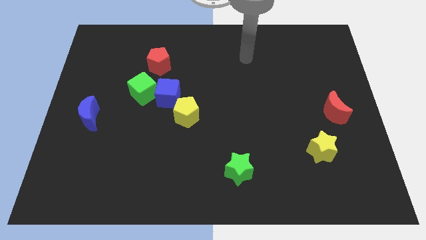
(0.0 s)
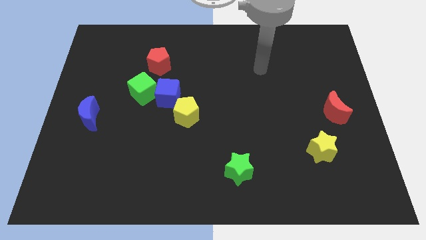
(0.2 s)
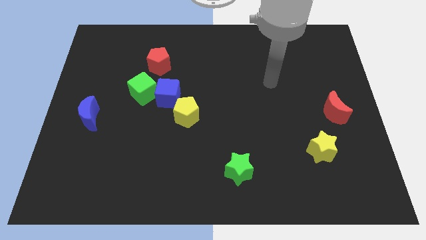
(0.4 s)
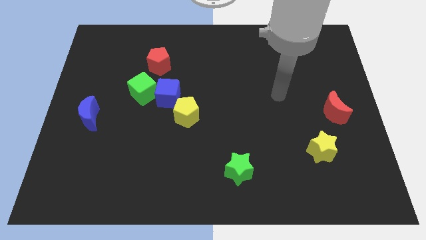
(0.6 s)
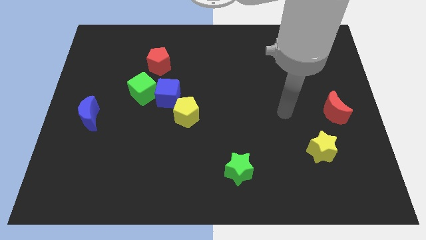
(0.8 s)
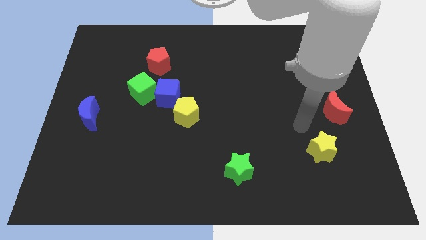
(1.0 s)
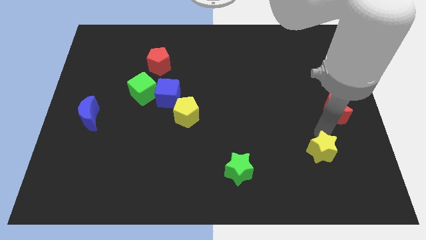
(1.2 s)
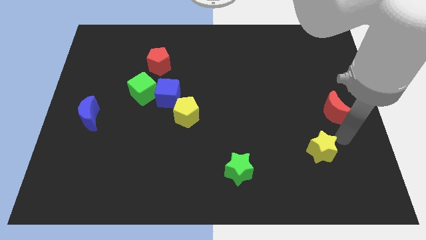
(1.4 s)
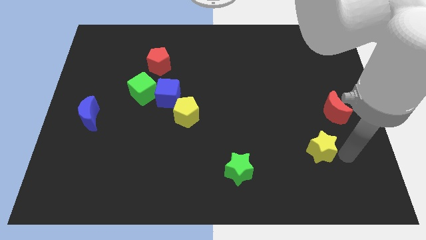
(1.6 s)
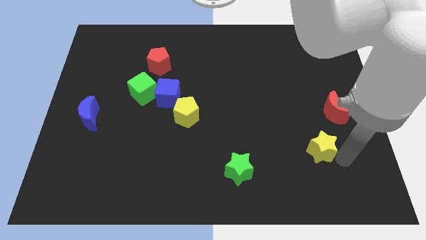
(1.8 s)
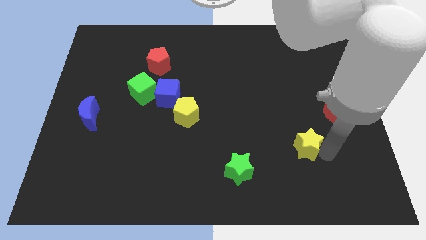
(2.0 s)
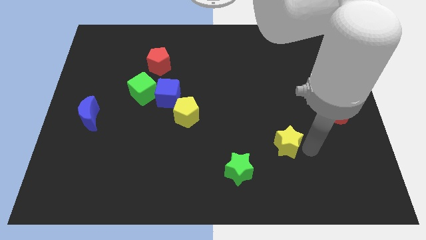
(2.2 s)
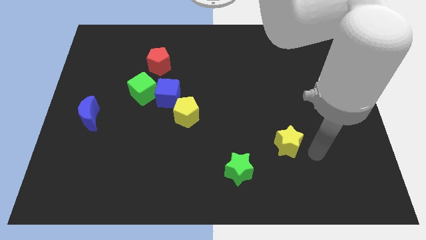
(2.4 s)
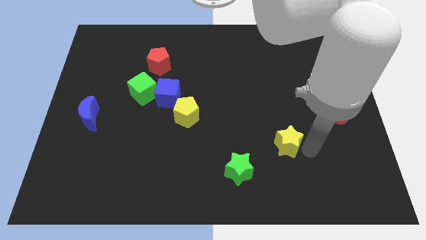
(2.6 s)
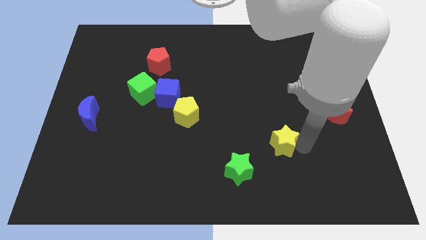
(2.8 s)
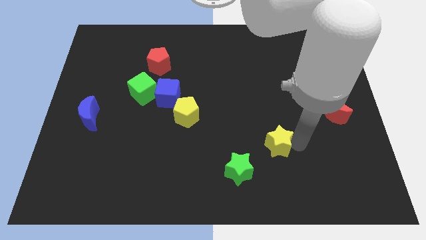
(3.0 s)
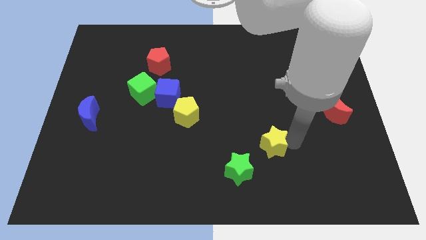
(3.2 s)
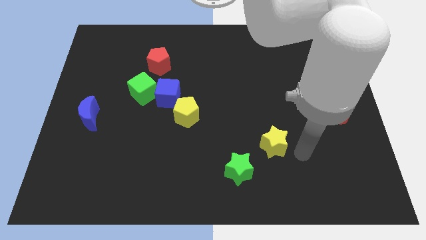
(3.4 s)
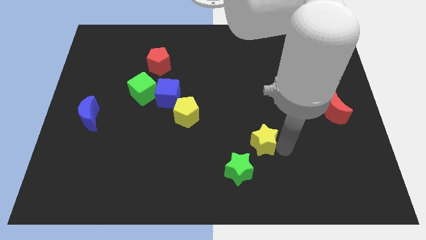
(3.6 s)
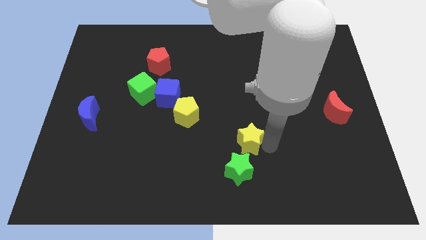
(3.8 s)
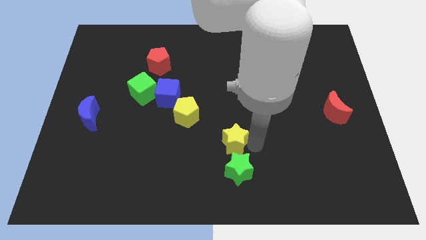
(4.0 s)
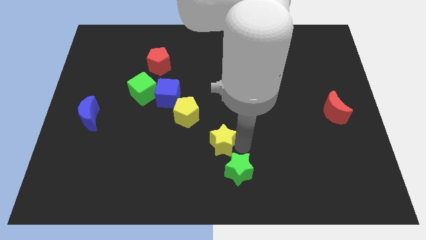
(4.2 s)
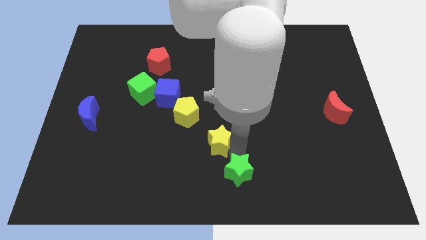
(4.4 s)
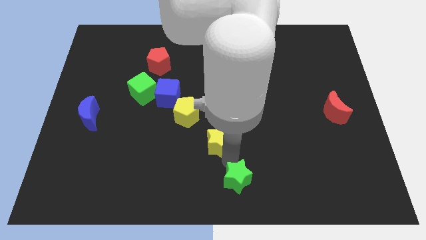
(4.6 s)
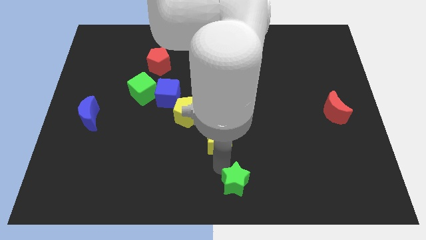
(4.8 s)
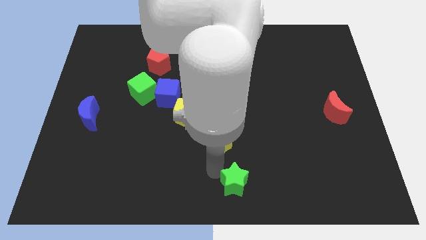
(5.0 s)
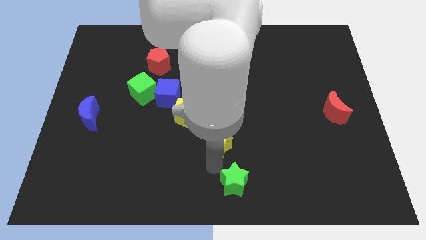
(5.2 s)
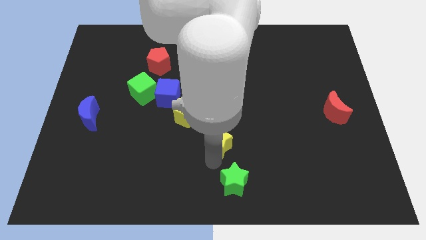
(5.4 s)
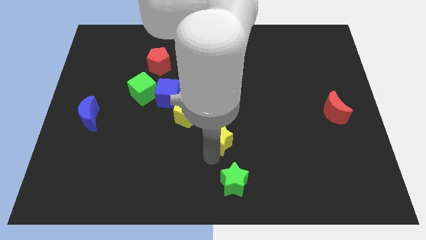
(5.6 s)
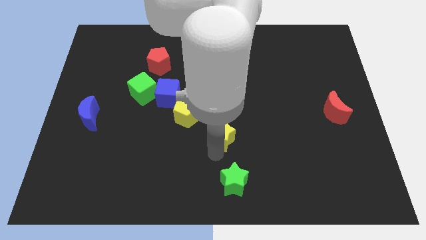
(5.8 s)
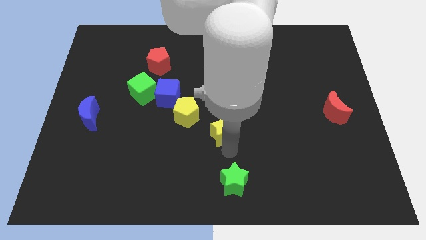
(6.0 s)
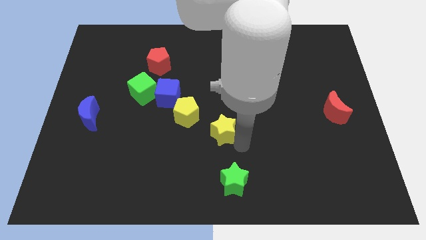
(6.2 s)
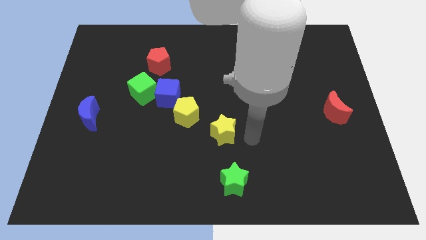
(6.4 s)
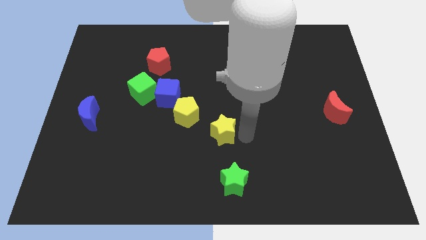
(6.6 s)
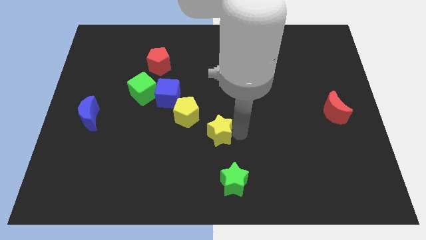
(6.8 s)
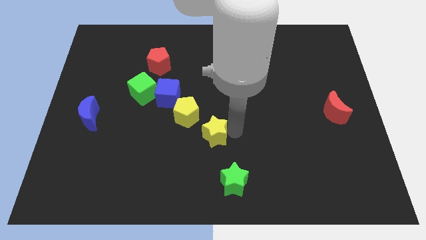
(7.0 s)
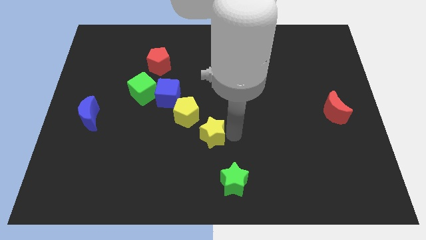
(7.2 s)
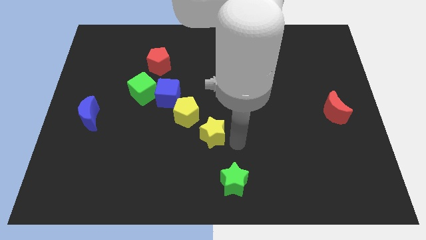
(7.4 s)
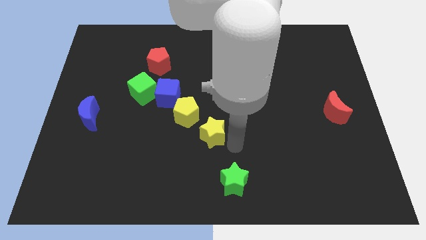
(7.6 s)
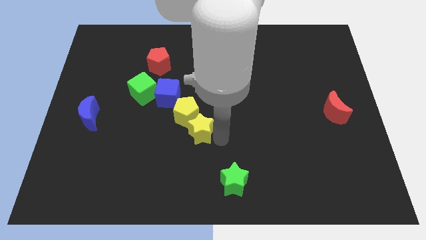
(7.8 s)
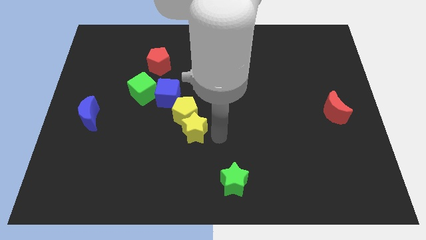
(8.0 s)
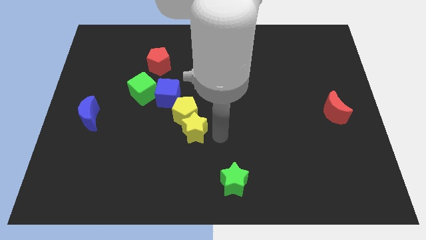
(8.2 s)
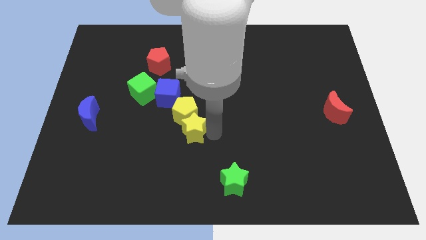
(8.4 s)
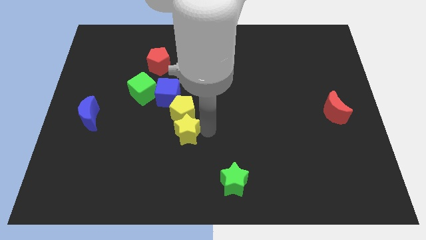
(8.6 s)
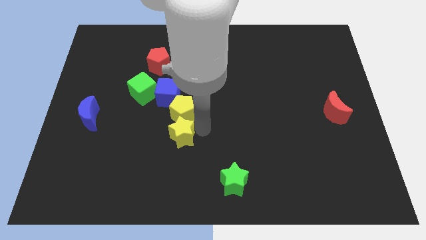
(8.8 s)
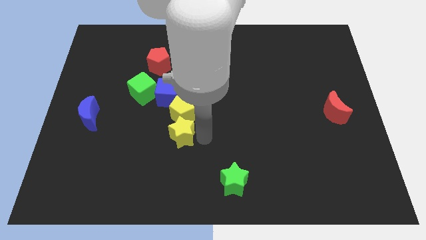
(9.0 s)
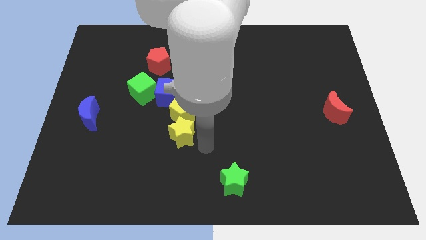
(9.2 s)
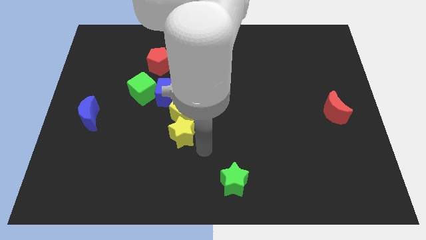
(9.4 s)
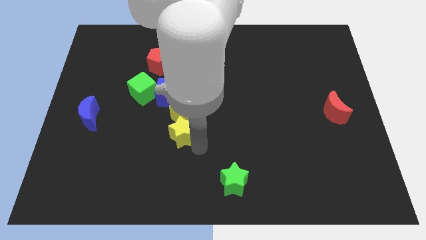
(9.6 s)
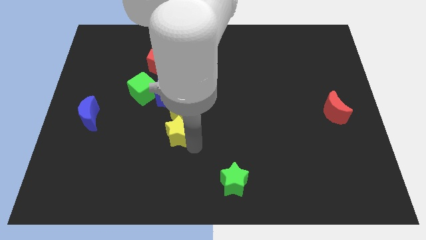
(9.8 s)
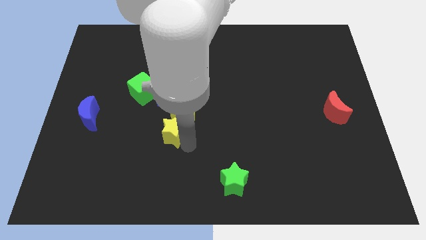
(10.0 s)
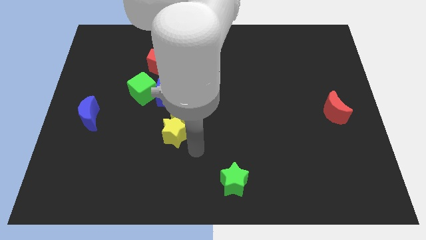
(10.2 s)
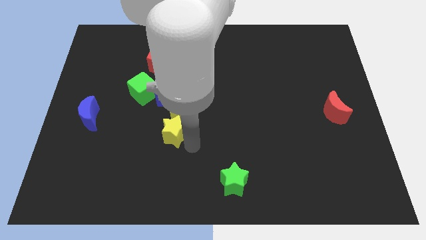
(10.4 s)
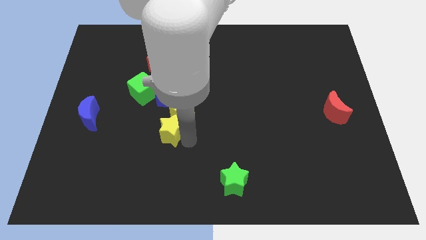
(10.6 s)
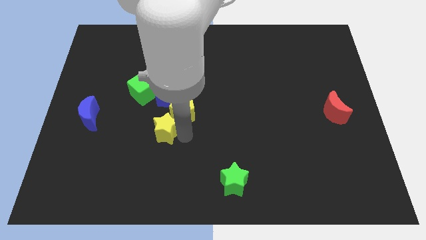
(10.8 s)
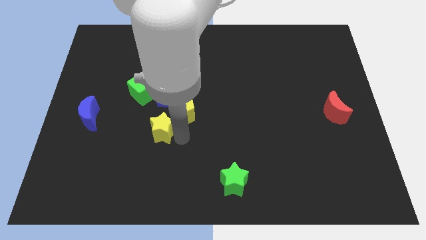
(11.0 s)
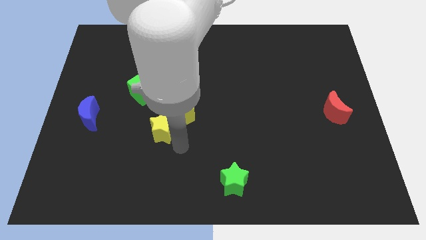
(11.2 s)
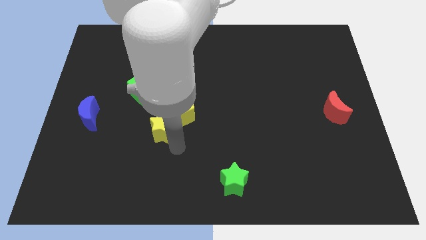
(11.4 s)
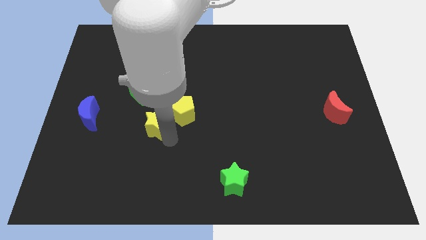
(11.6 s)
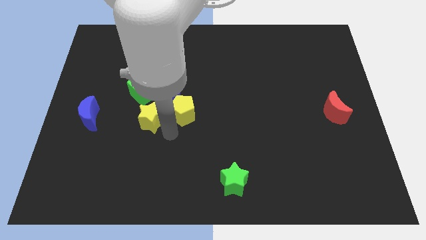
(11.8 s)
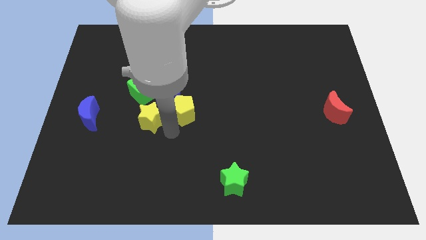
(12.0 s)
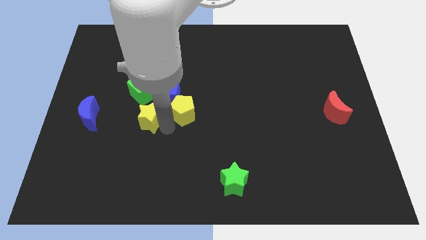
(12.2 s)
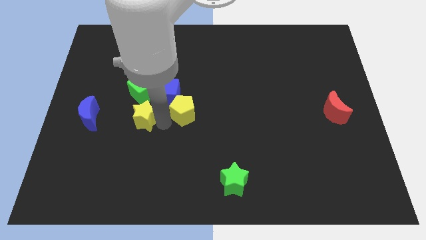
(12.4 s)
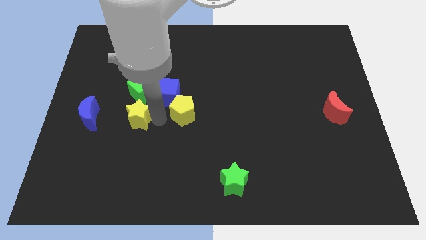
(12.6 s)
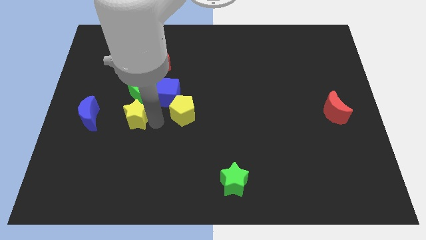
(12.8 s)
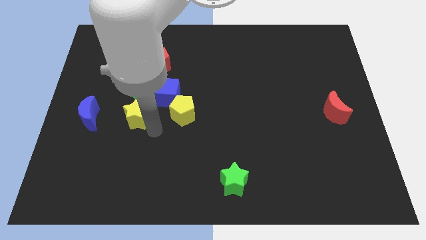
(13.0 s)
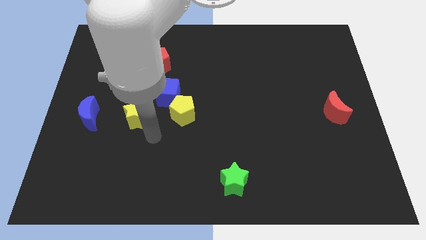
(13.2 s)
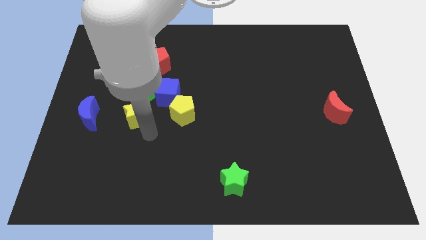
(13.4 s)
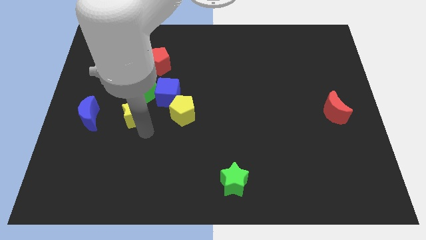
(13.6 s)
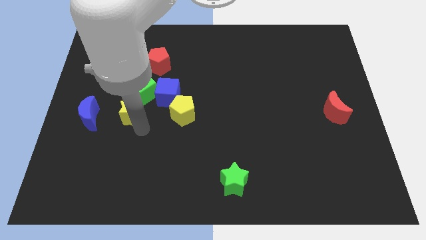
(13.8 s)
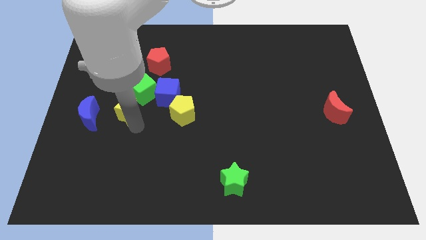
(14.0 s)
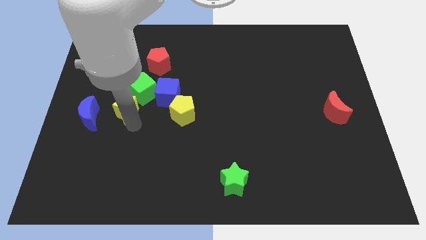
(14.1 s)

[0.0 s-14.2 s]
push the yellow star just left of the blue cube
